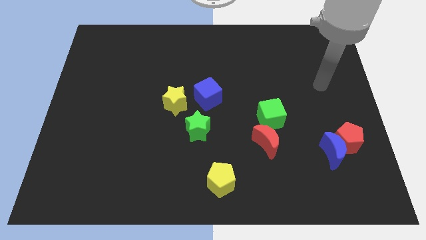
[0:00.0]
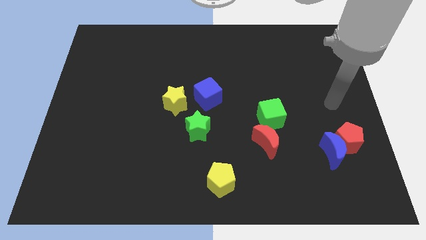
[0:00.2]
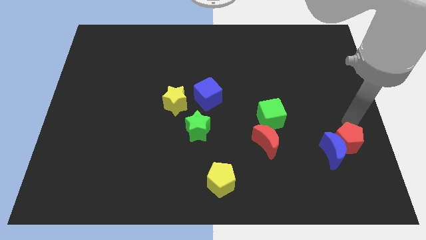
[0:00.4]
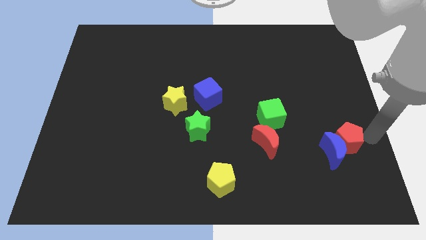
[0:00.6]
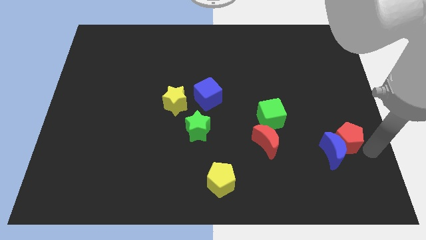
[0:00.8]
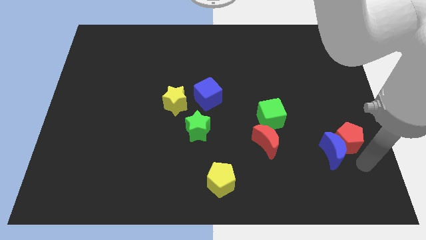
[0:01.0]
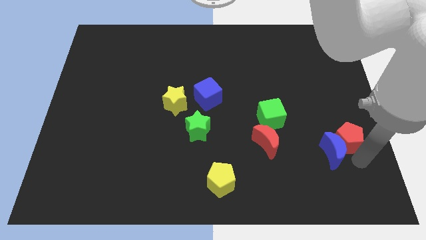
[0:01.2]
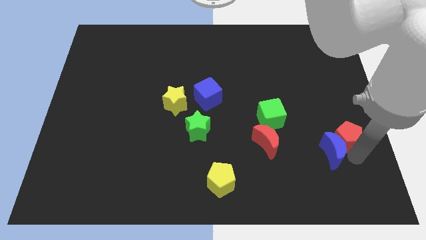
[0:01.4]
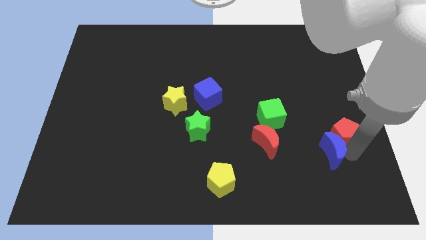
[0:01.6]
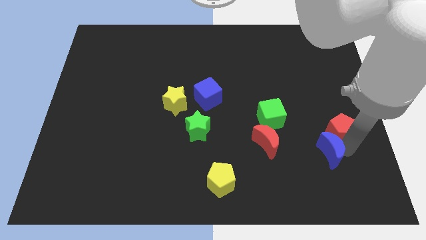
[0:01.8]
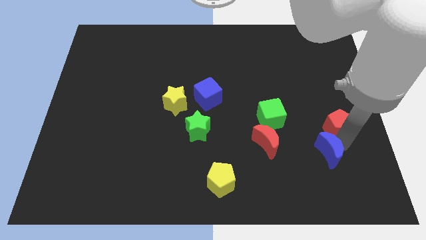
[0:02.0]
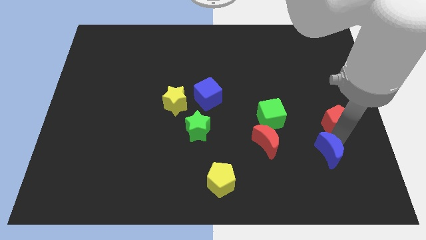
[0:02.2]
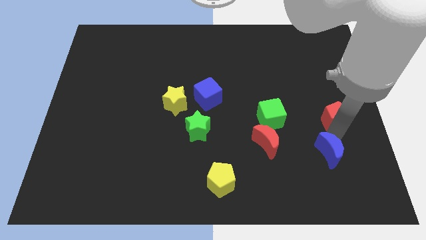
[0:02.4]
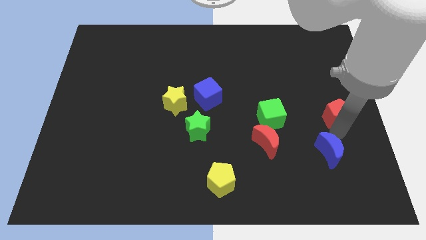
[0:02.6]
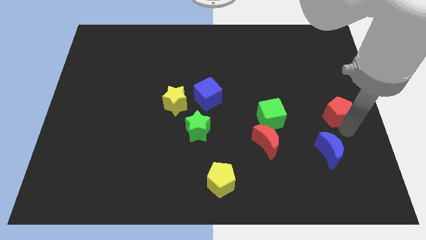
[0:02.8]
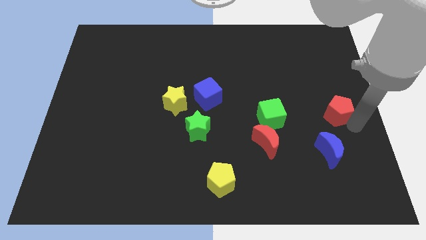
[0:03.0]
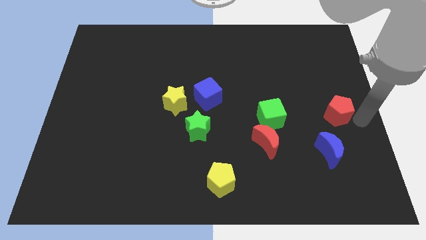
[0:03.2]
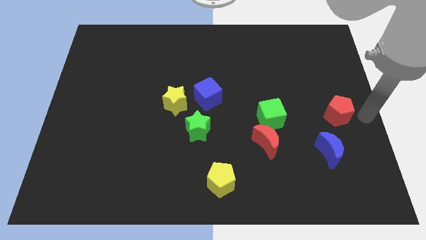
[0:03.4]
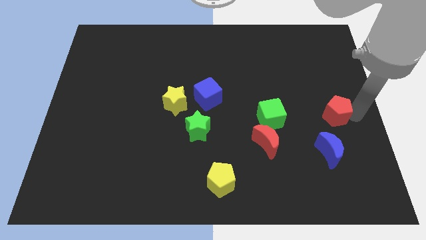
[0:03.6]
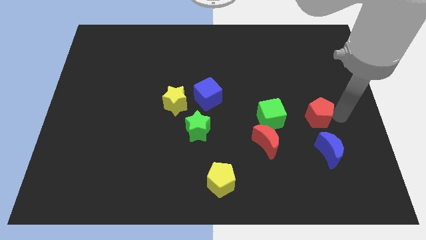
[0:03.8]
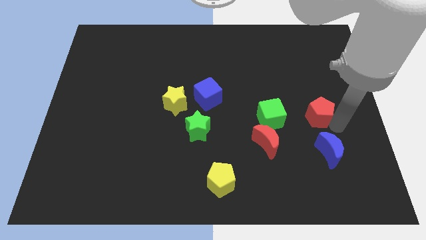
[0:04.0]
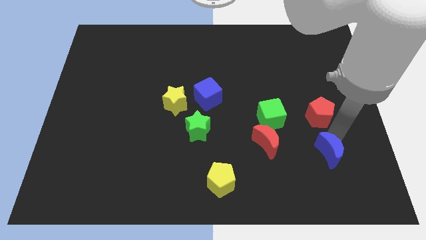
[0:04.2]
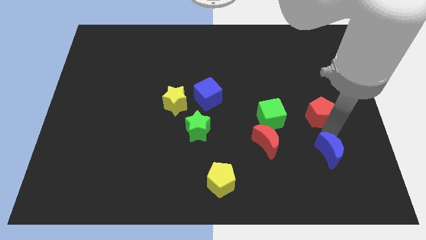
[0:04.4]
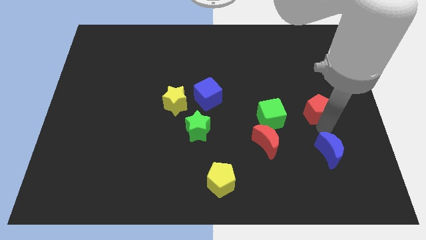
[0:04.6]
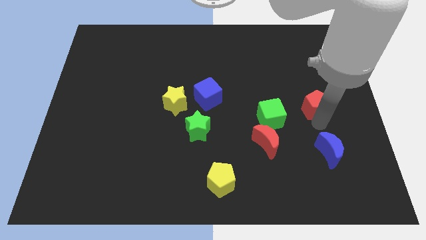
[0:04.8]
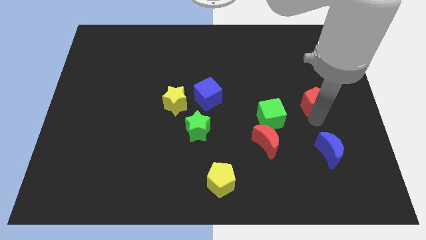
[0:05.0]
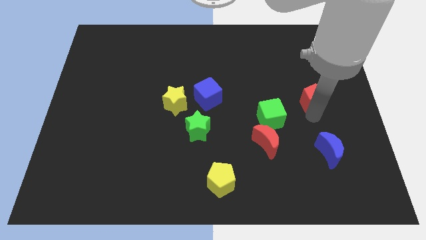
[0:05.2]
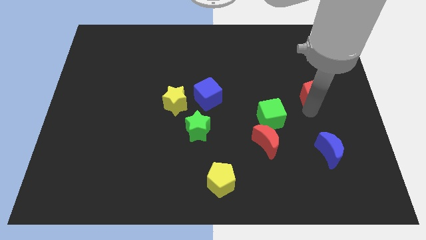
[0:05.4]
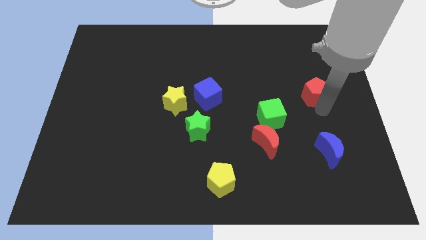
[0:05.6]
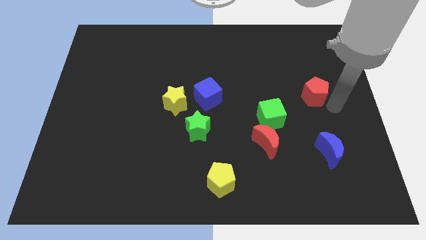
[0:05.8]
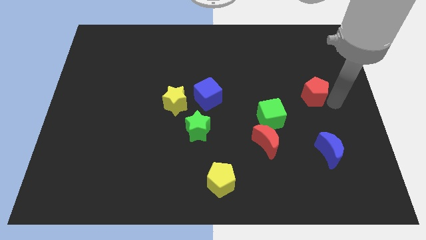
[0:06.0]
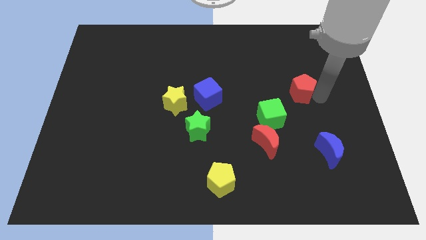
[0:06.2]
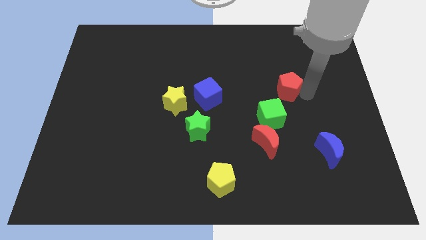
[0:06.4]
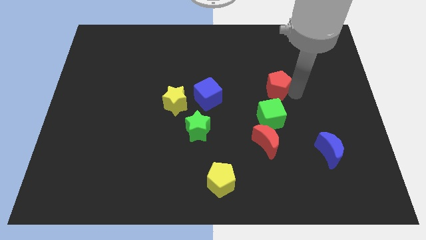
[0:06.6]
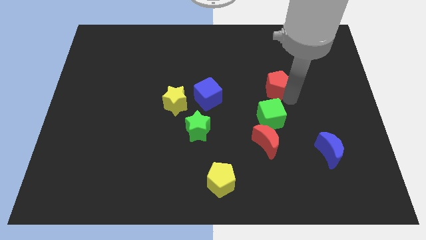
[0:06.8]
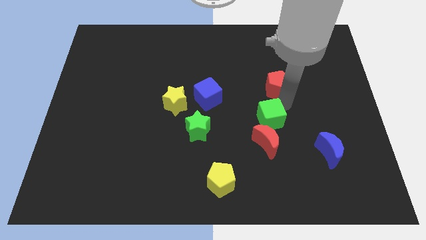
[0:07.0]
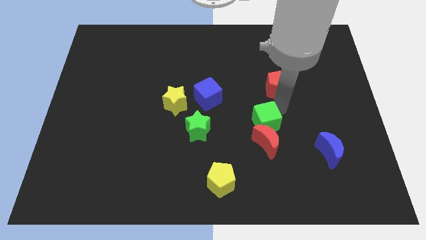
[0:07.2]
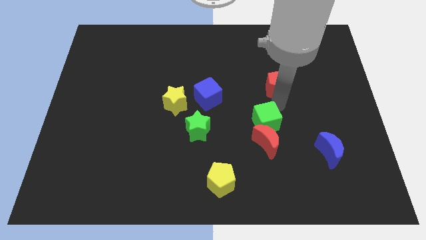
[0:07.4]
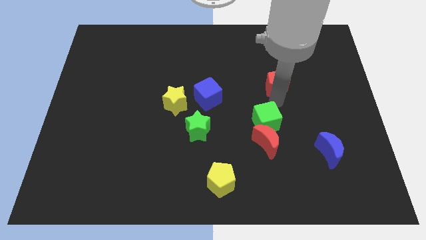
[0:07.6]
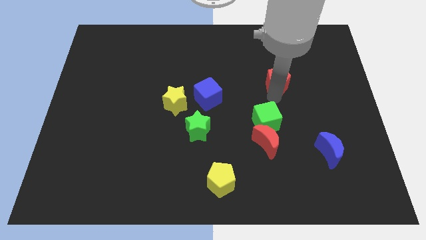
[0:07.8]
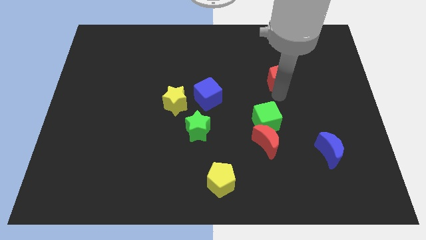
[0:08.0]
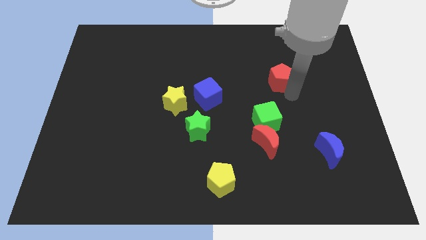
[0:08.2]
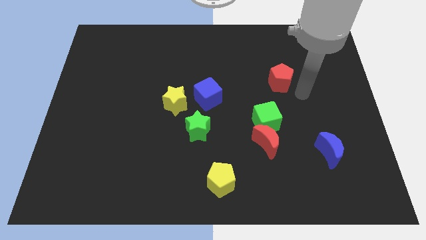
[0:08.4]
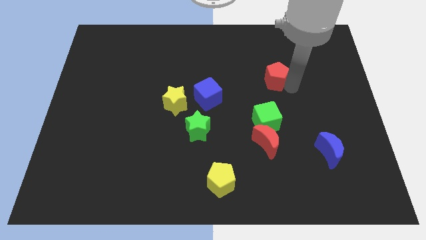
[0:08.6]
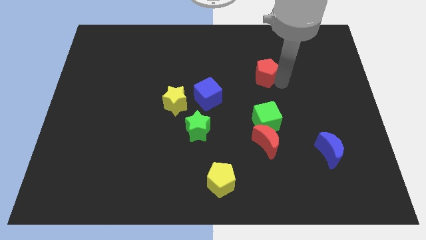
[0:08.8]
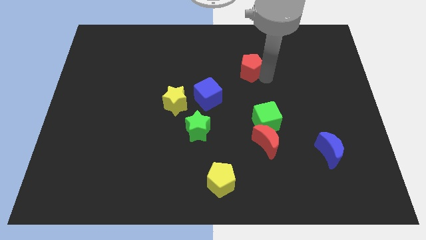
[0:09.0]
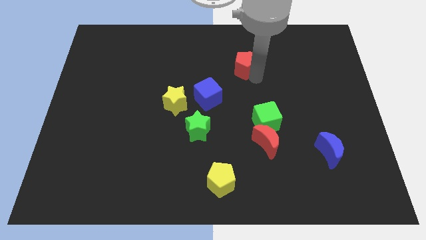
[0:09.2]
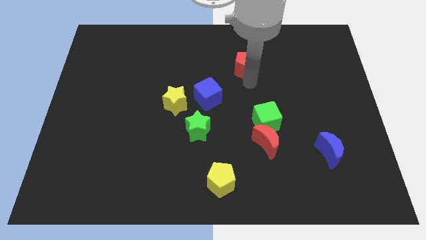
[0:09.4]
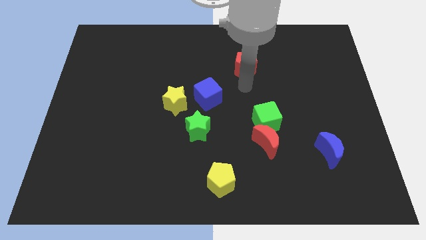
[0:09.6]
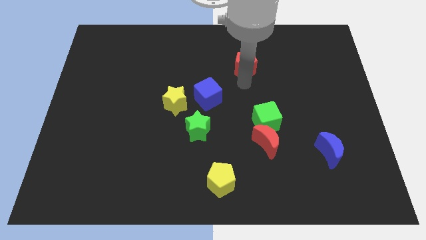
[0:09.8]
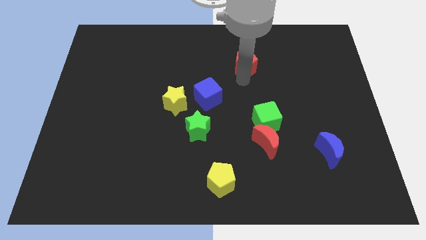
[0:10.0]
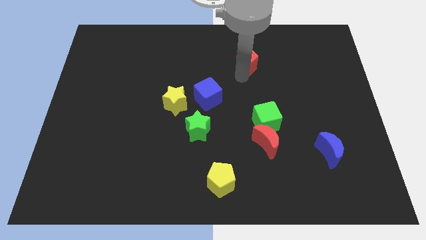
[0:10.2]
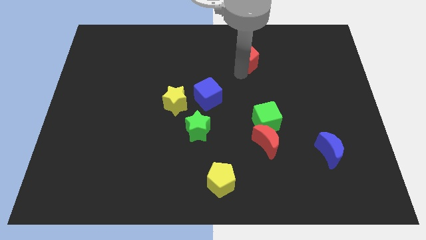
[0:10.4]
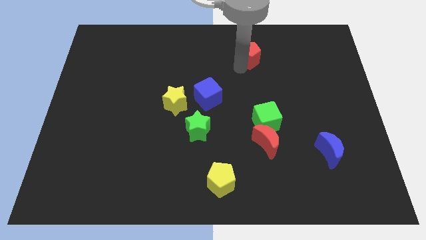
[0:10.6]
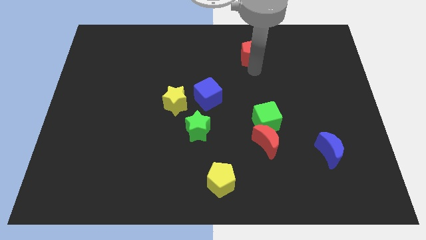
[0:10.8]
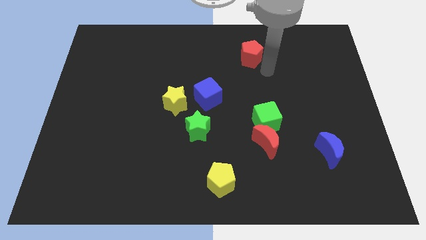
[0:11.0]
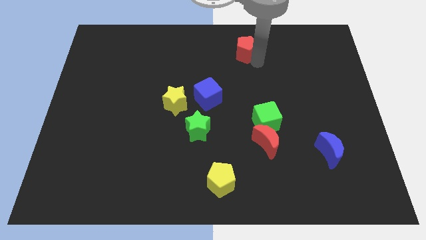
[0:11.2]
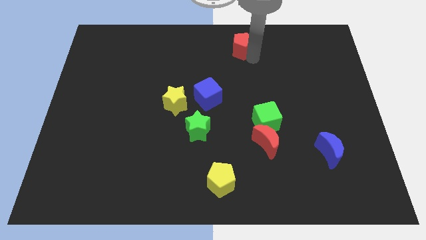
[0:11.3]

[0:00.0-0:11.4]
push the red pentagon to the top

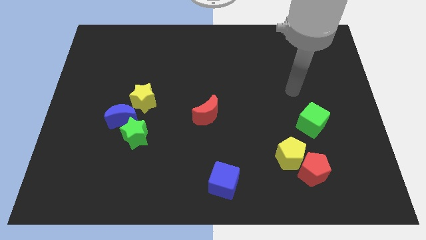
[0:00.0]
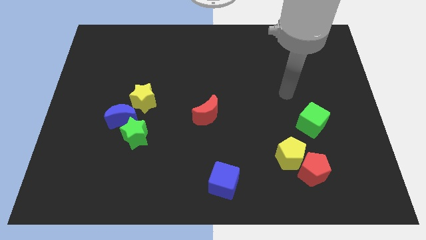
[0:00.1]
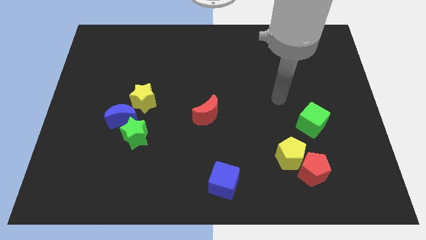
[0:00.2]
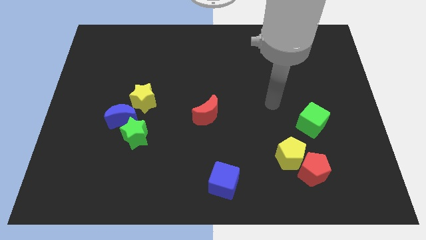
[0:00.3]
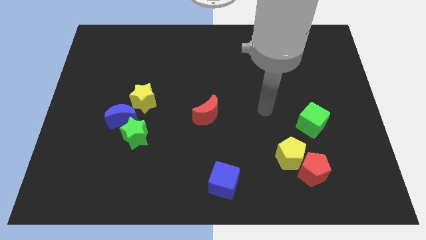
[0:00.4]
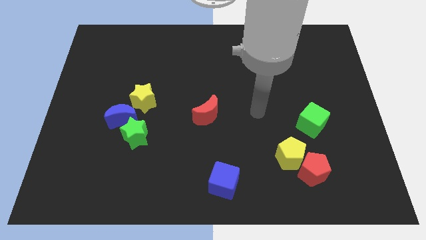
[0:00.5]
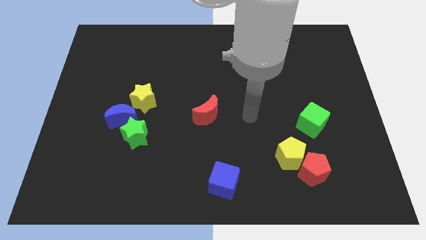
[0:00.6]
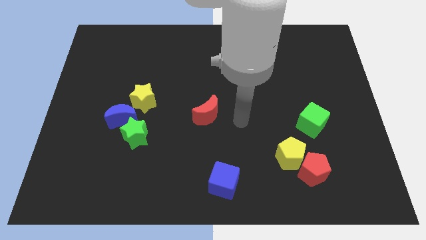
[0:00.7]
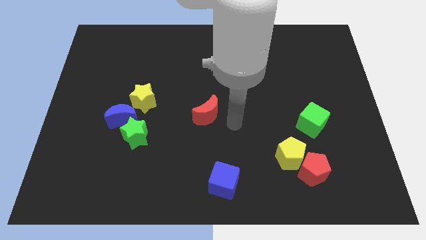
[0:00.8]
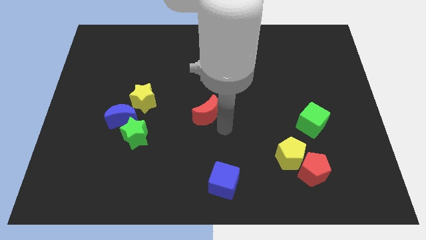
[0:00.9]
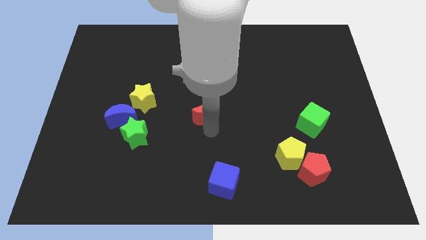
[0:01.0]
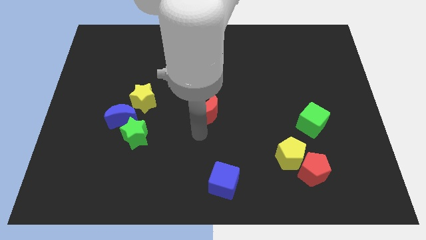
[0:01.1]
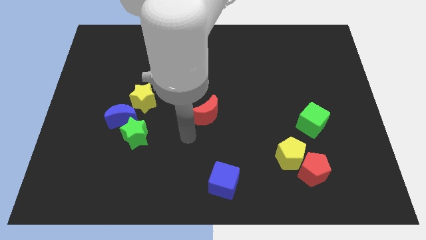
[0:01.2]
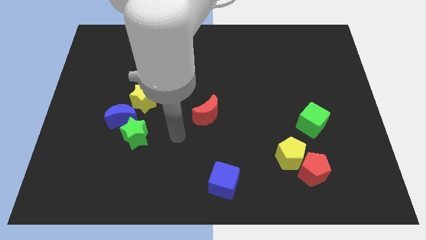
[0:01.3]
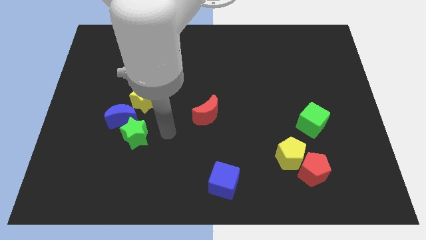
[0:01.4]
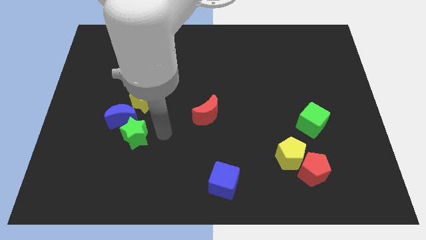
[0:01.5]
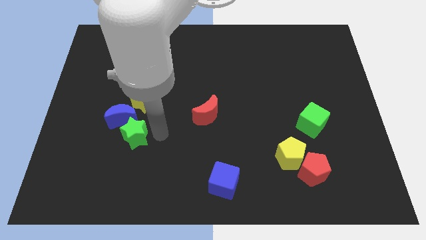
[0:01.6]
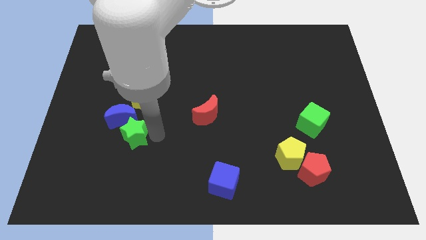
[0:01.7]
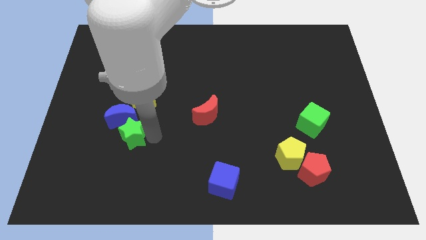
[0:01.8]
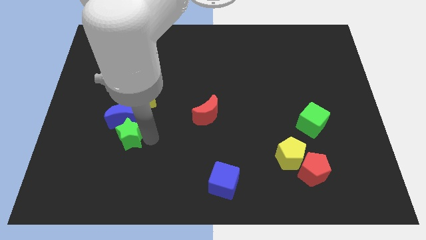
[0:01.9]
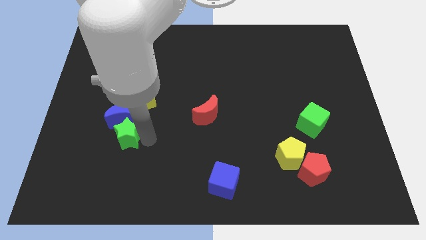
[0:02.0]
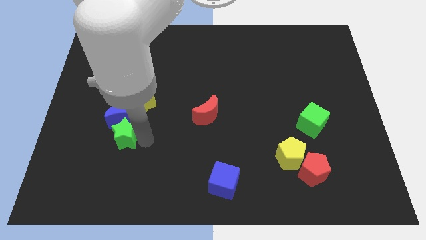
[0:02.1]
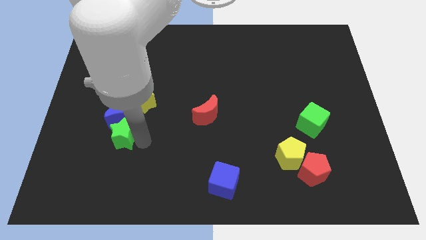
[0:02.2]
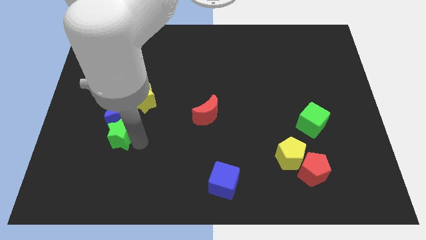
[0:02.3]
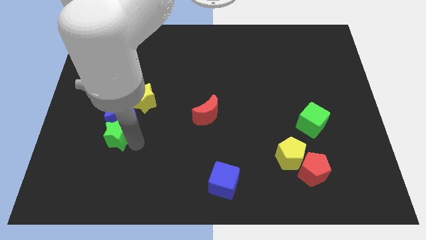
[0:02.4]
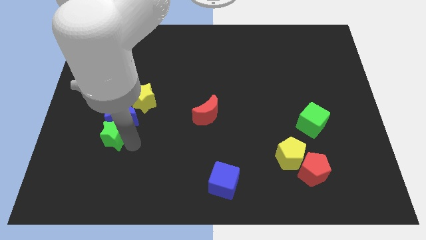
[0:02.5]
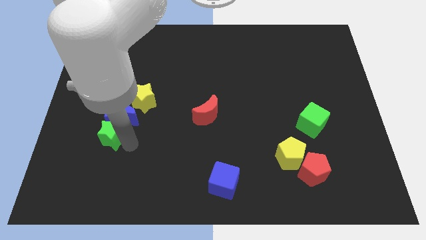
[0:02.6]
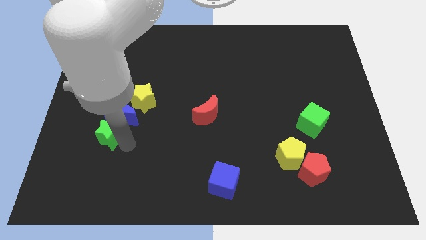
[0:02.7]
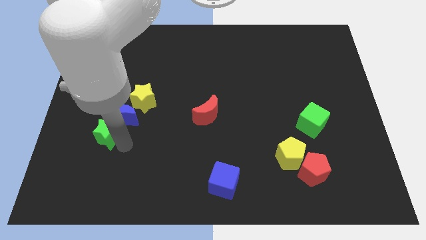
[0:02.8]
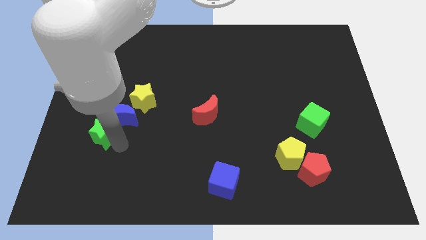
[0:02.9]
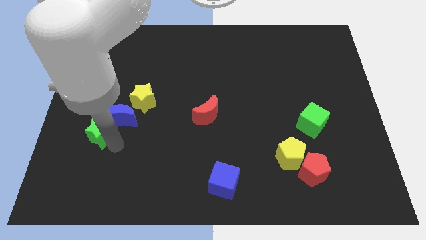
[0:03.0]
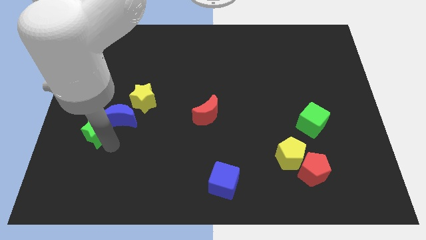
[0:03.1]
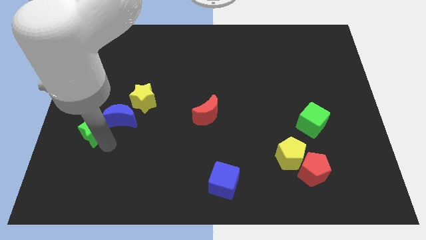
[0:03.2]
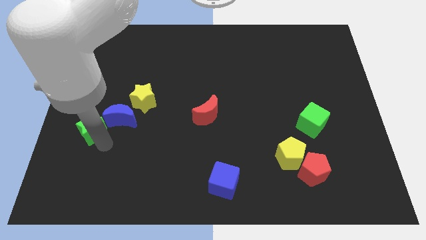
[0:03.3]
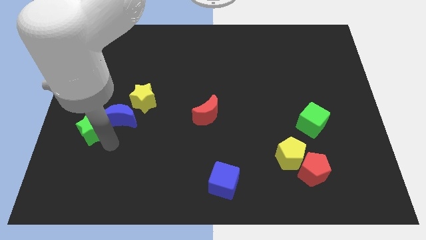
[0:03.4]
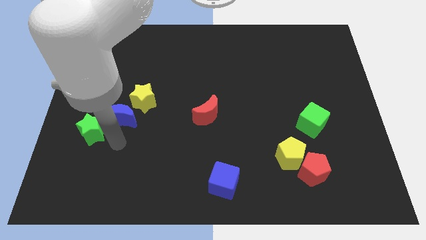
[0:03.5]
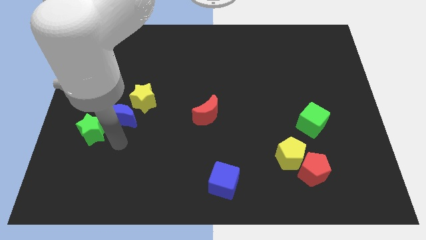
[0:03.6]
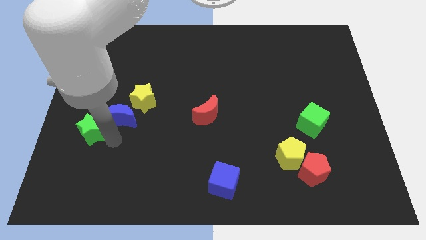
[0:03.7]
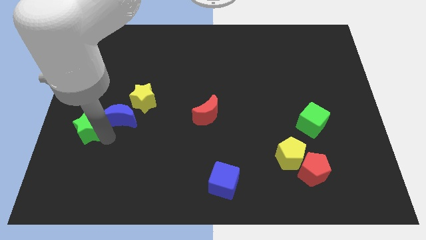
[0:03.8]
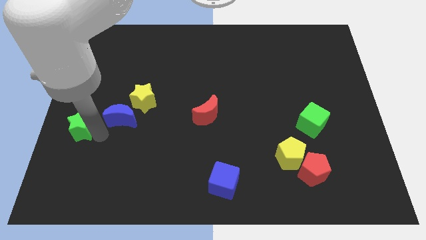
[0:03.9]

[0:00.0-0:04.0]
move the green star to the left side of the board
